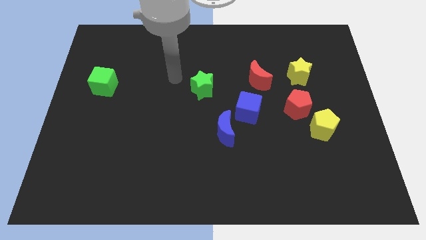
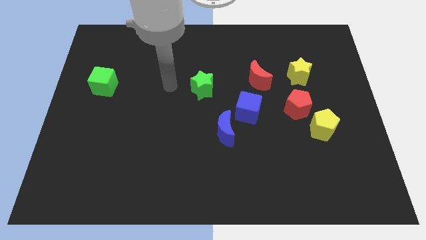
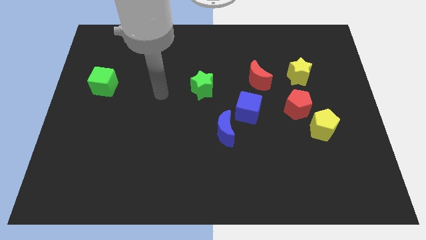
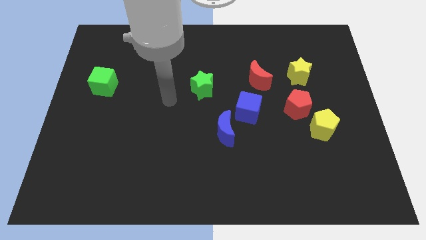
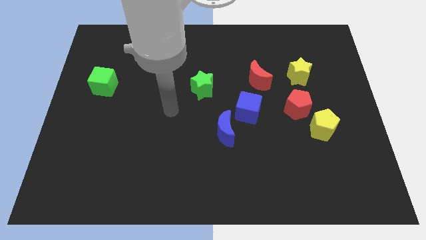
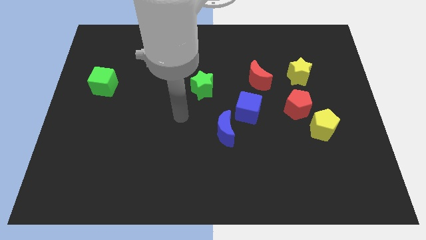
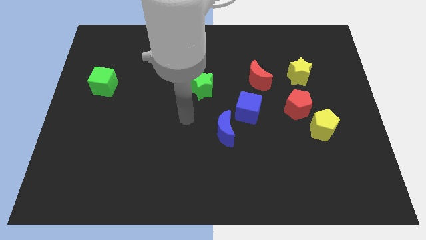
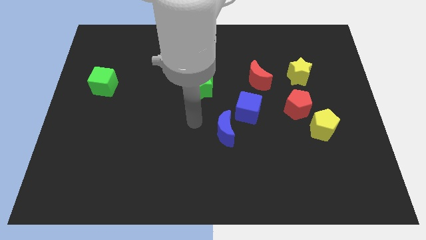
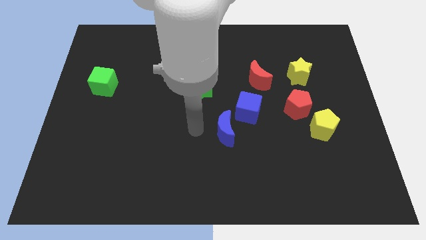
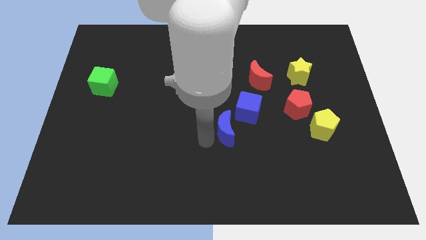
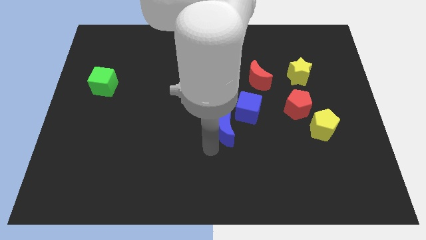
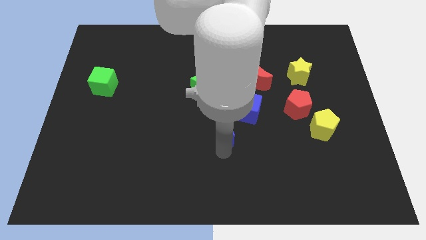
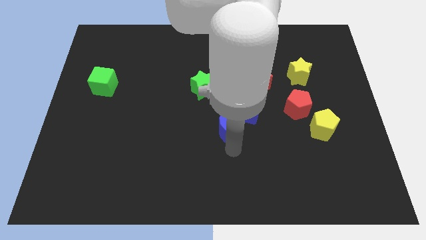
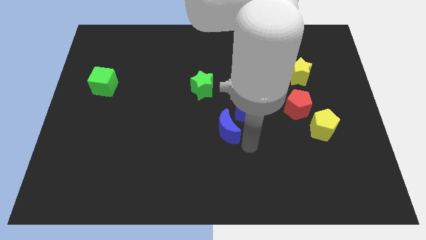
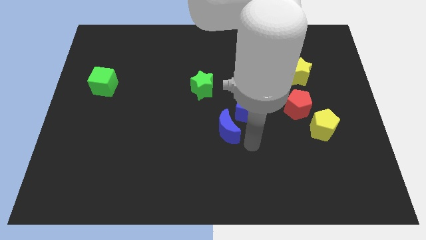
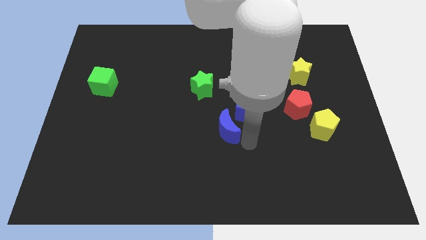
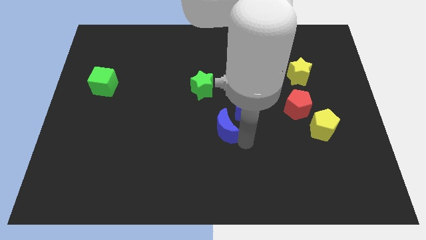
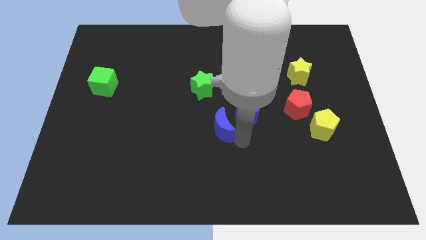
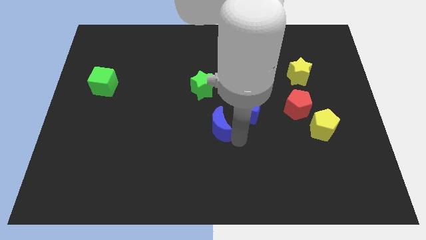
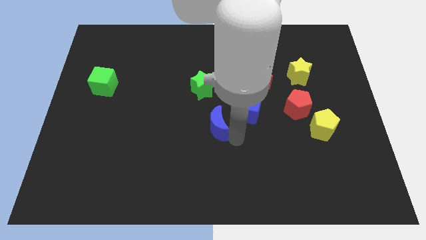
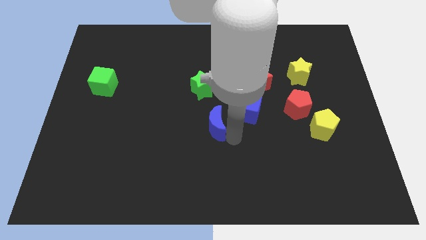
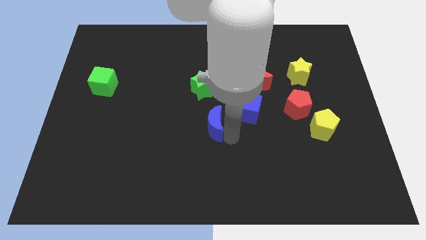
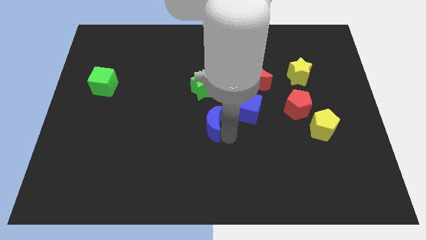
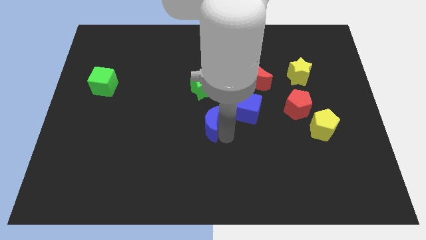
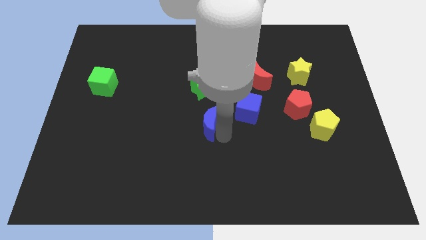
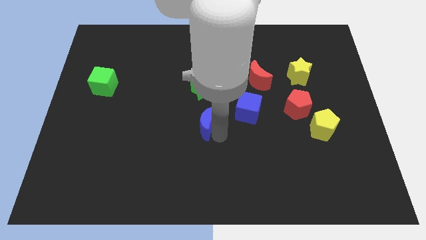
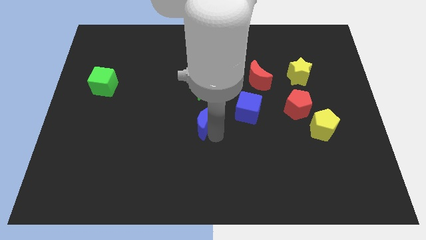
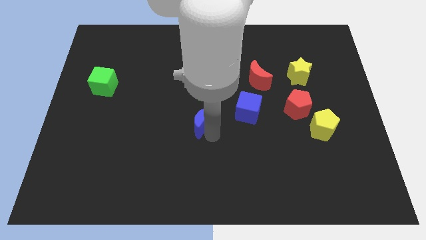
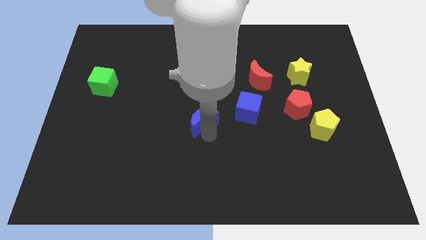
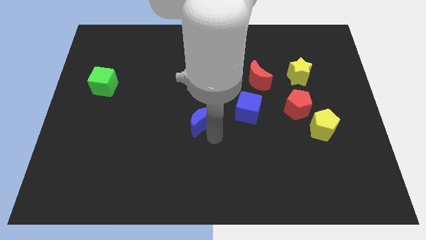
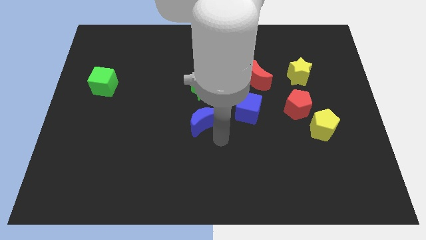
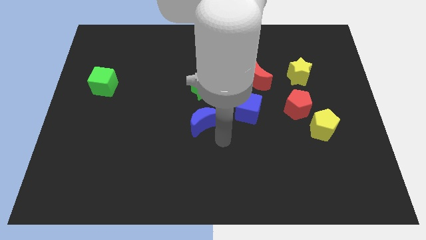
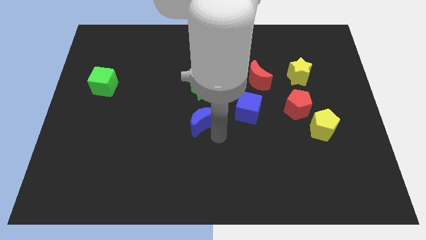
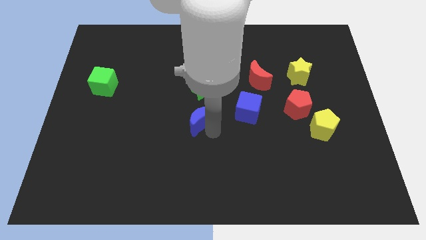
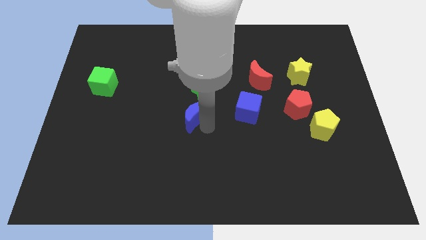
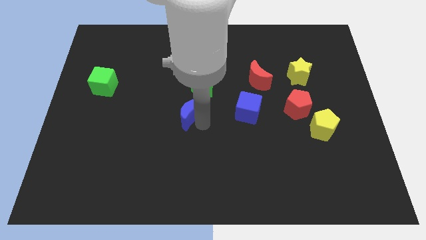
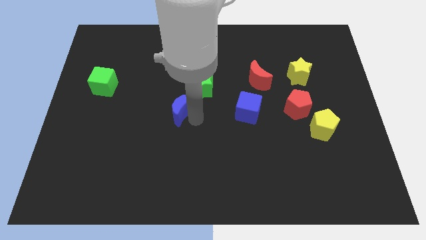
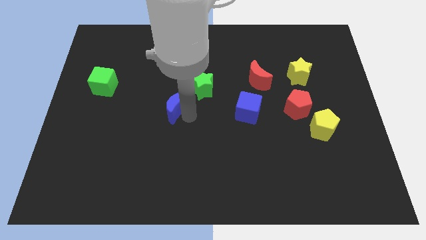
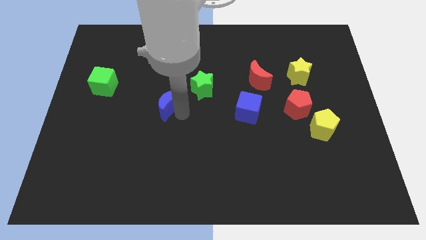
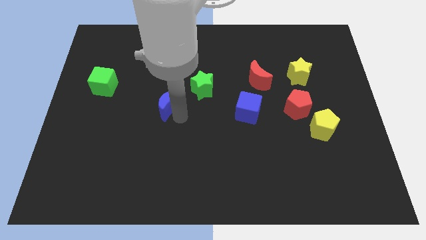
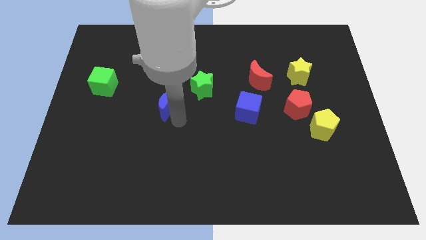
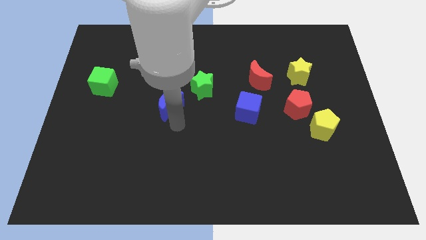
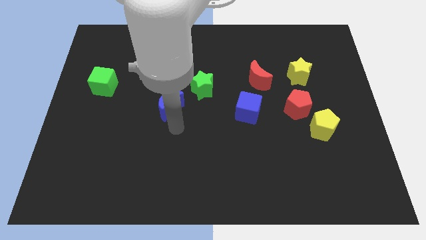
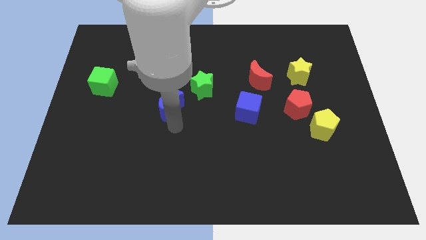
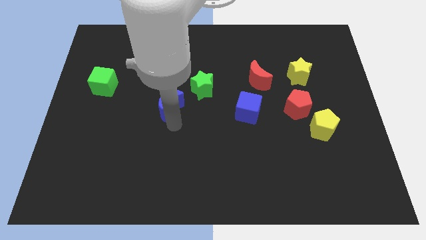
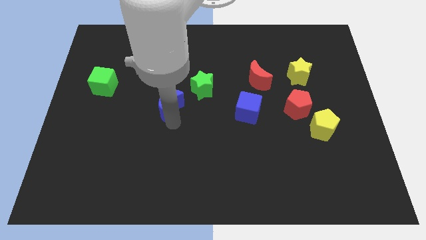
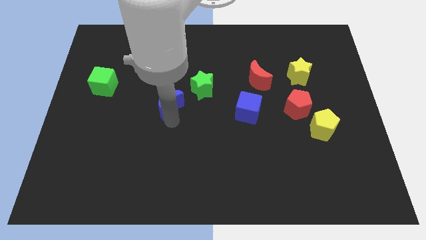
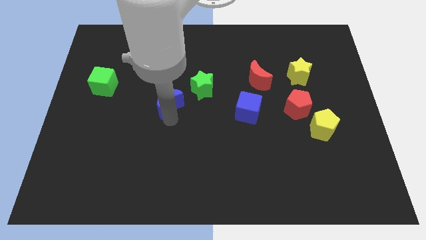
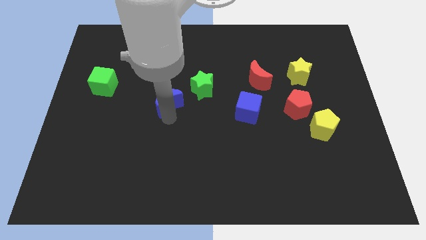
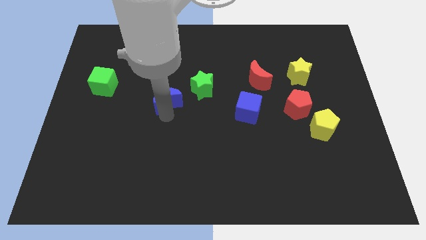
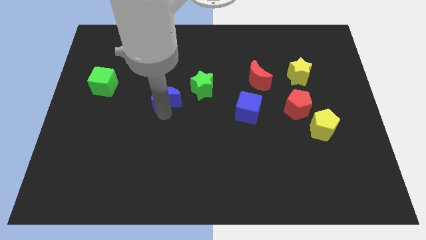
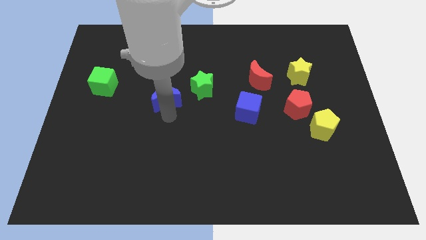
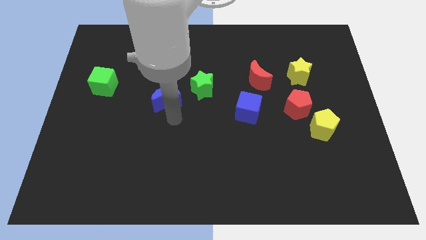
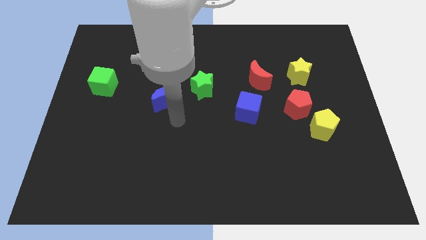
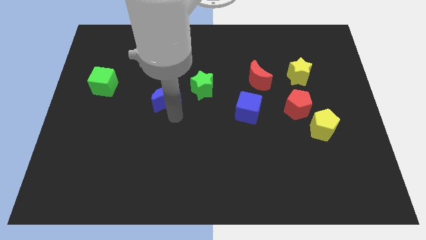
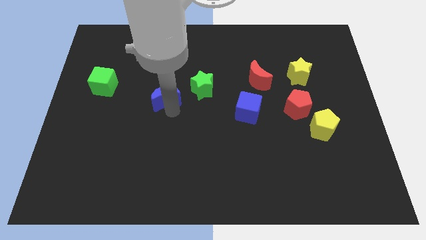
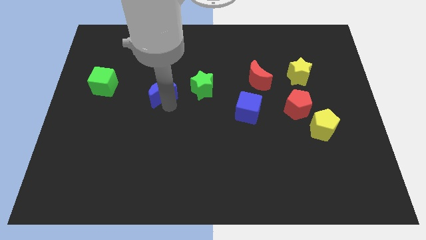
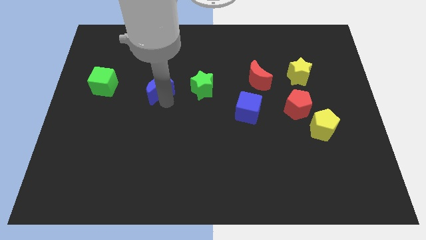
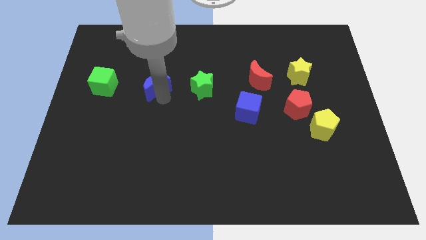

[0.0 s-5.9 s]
move the blue moon up and then left

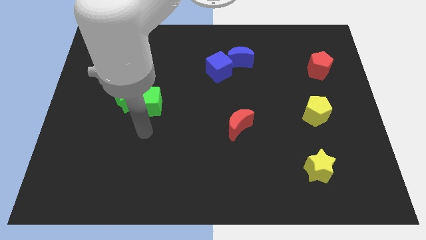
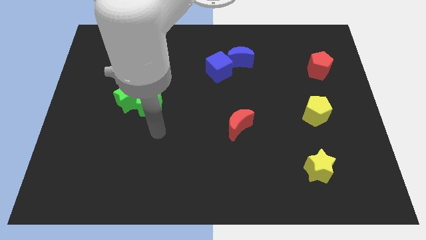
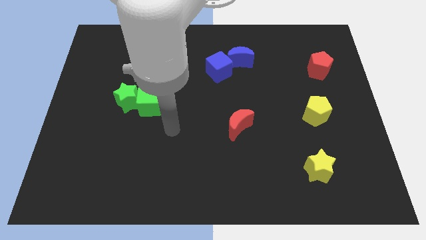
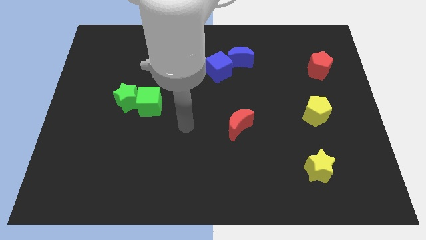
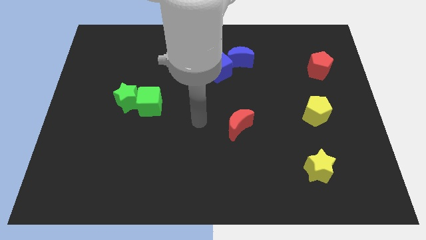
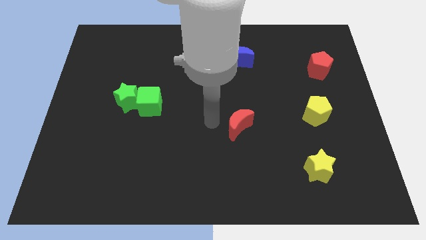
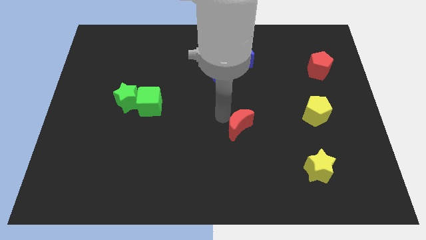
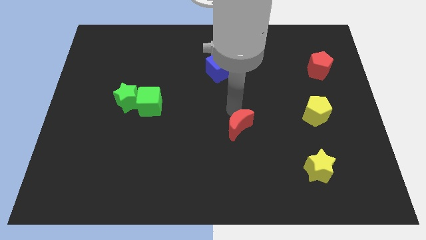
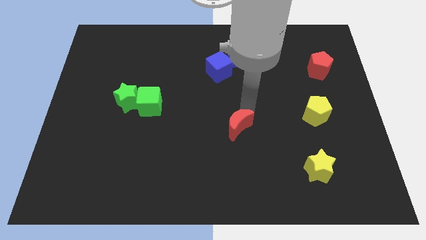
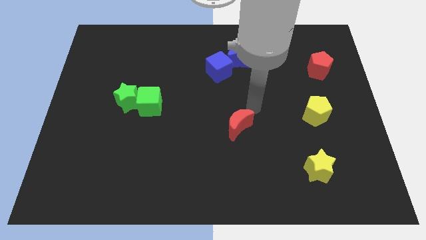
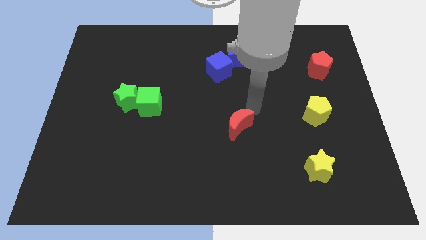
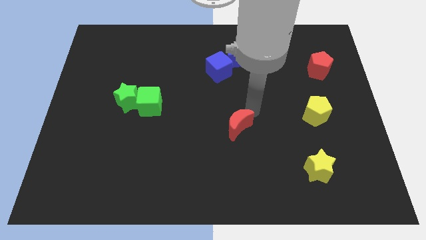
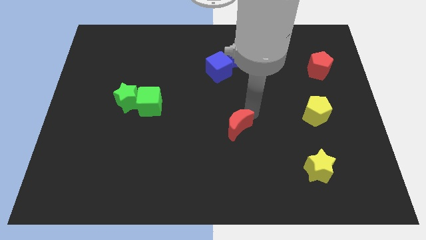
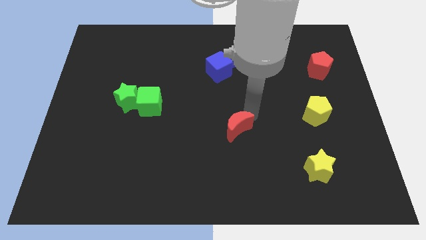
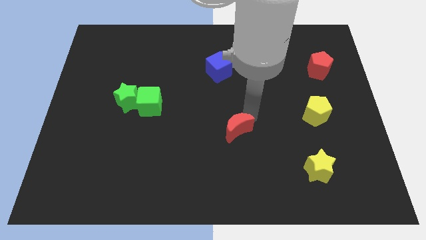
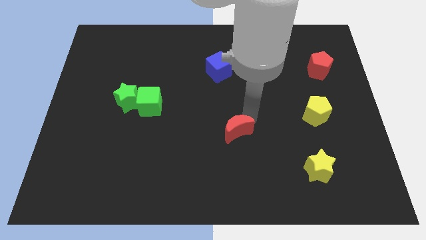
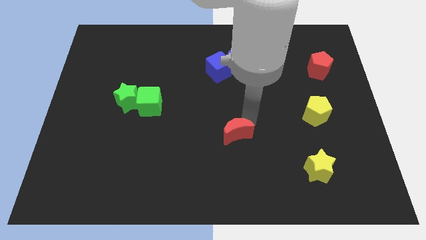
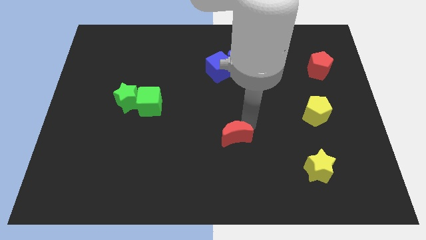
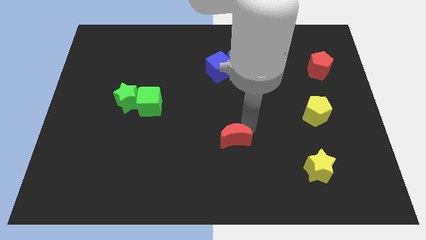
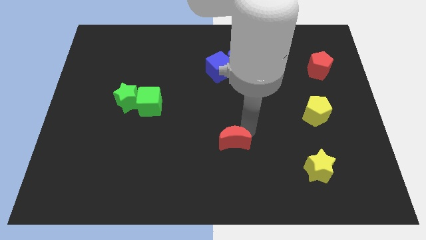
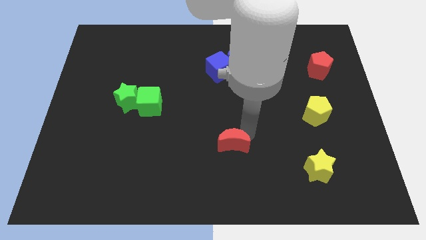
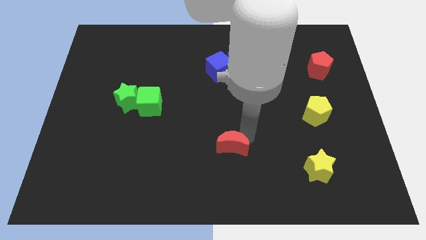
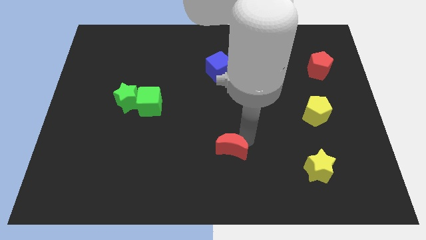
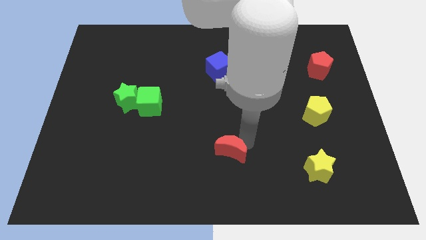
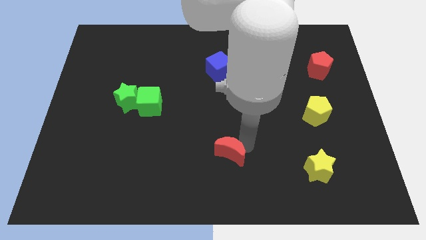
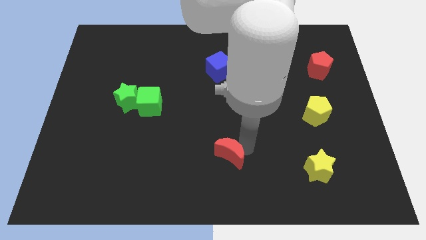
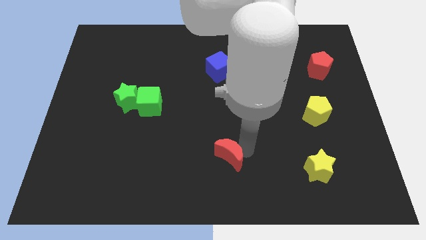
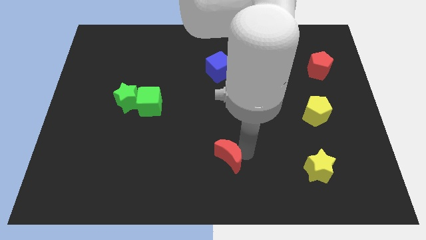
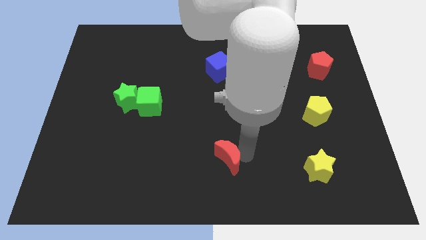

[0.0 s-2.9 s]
slide the red moon downwards and to the left somewhat
